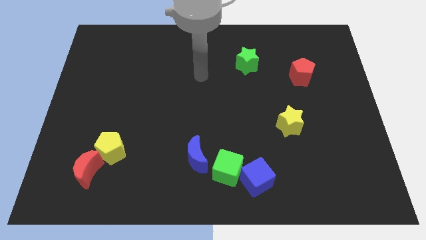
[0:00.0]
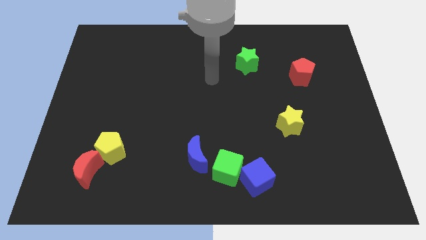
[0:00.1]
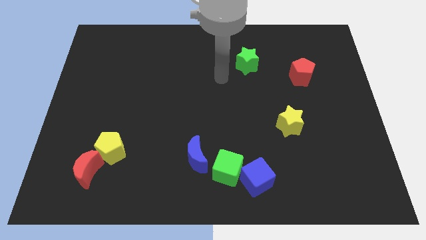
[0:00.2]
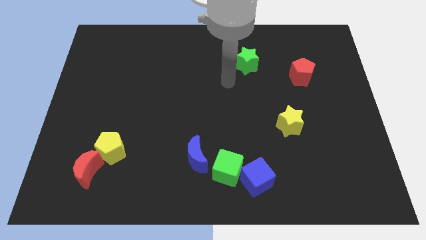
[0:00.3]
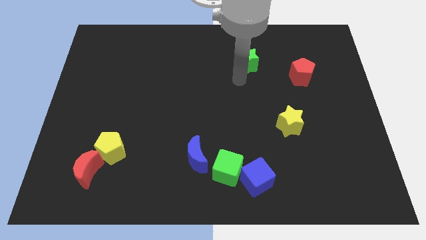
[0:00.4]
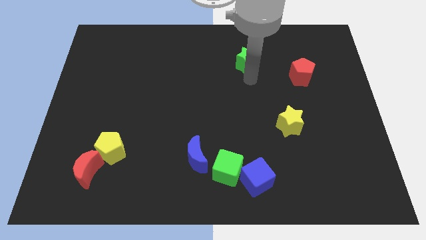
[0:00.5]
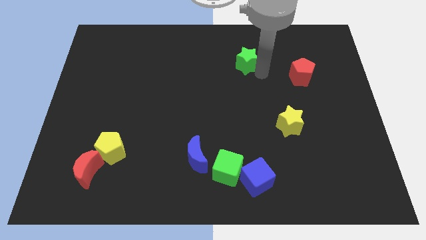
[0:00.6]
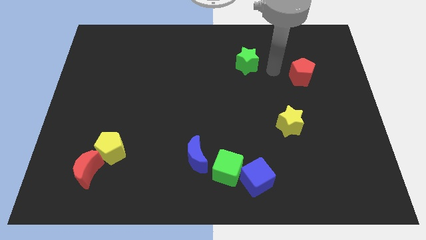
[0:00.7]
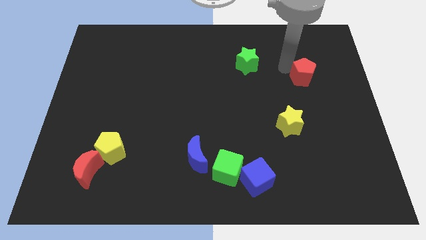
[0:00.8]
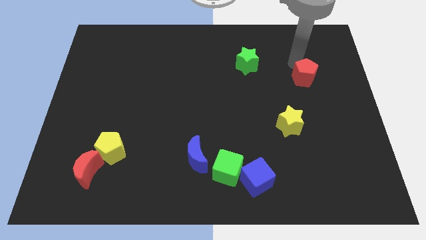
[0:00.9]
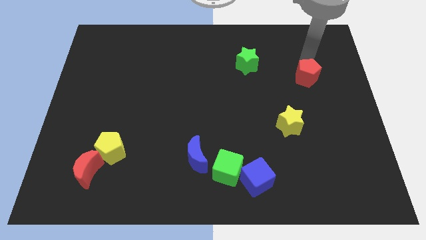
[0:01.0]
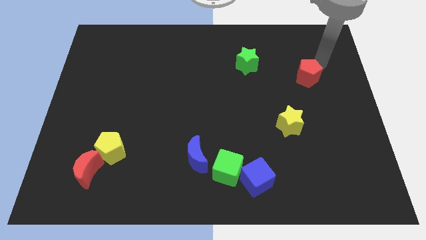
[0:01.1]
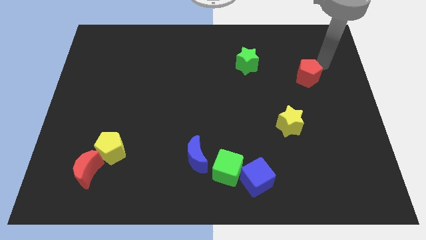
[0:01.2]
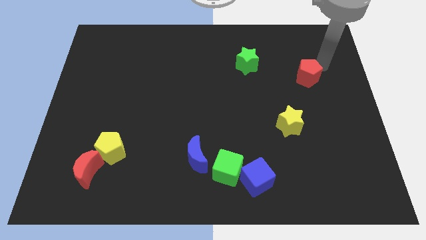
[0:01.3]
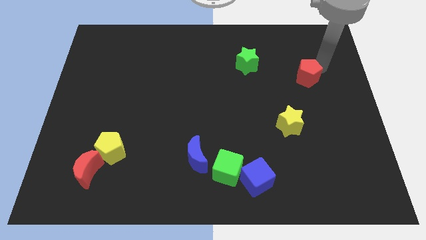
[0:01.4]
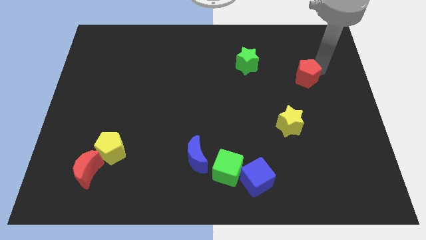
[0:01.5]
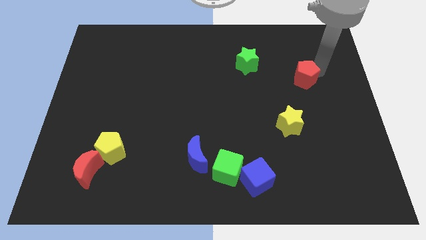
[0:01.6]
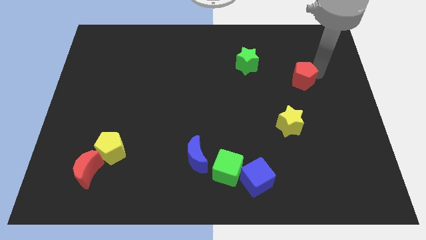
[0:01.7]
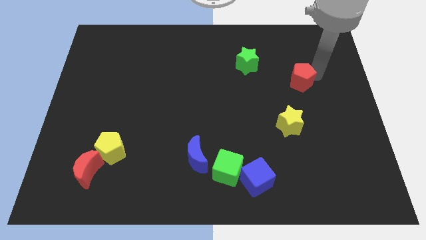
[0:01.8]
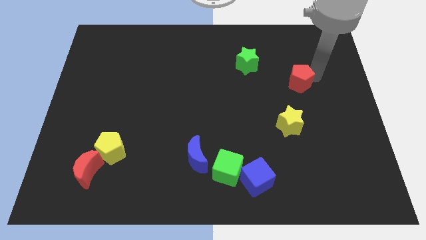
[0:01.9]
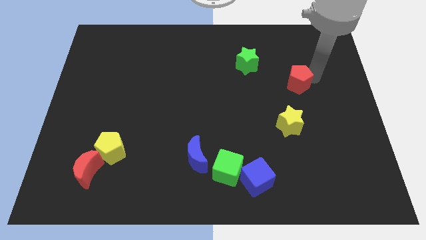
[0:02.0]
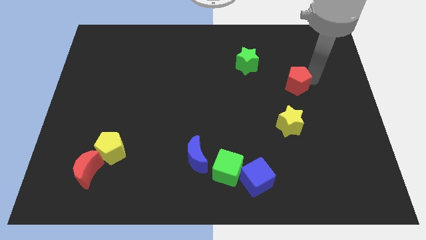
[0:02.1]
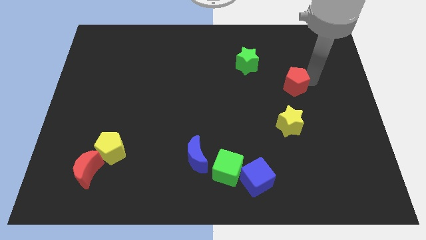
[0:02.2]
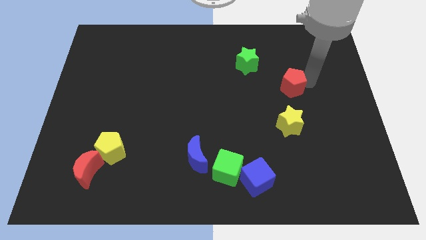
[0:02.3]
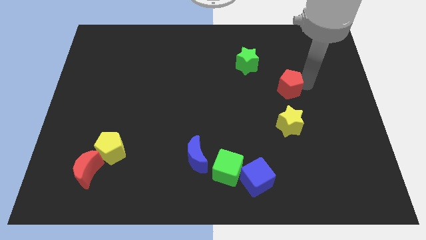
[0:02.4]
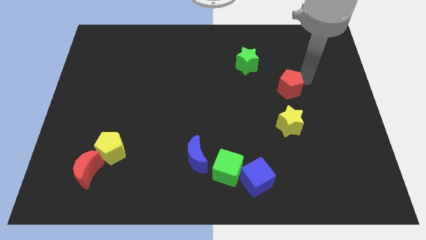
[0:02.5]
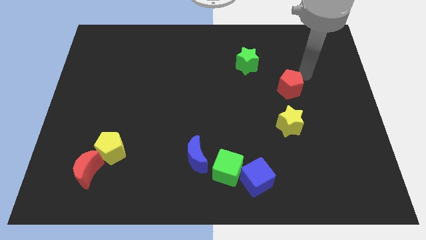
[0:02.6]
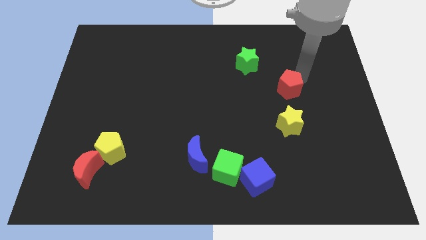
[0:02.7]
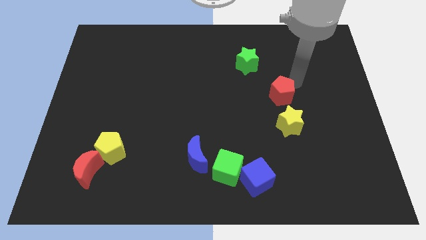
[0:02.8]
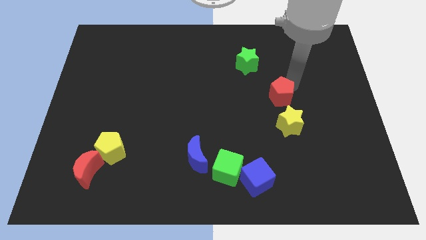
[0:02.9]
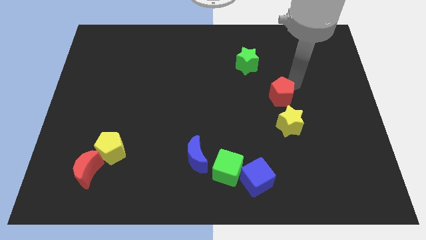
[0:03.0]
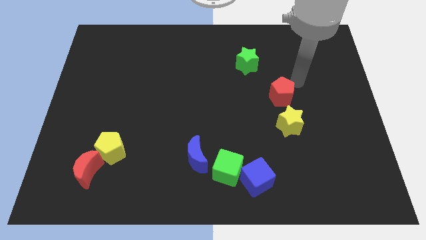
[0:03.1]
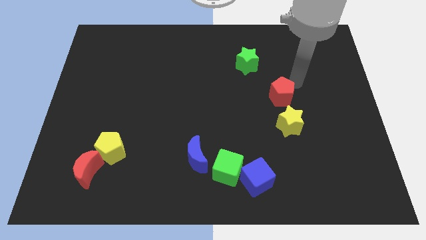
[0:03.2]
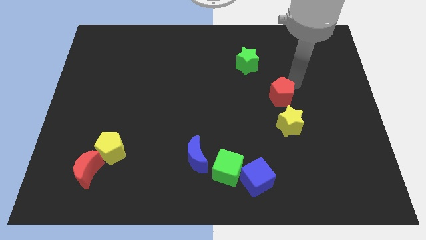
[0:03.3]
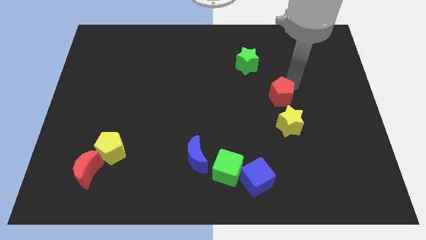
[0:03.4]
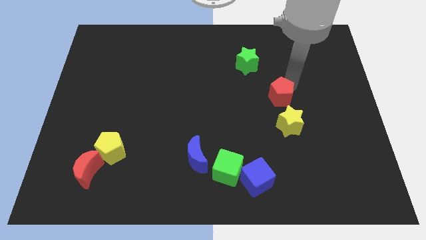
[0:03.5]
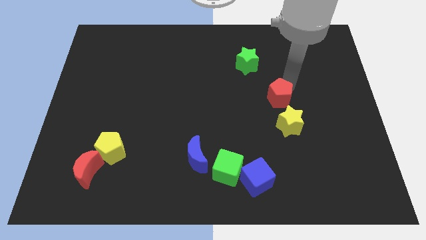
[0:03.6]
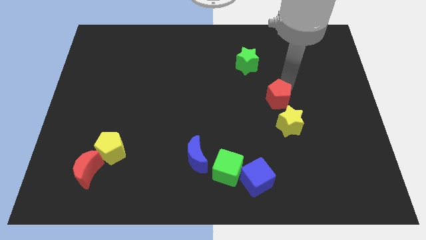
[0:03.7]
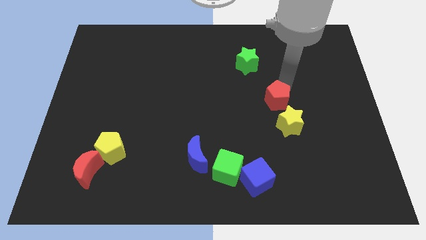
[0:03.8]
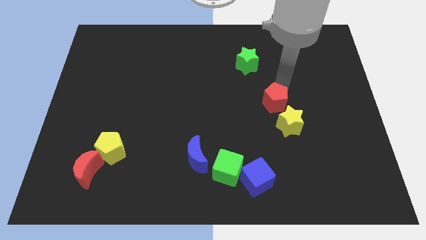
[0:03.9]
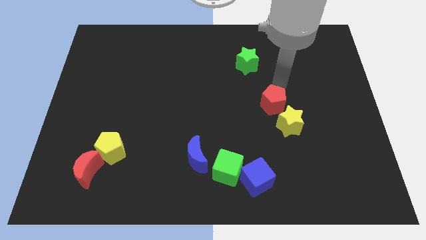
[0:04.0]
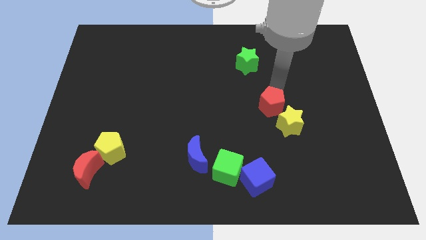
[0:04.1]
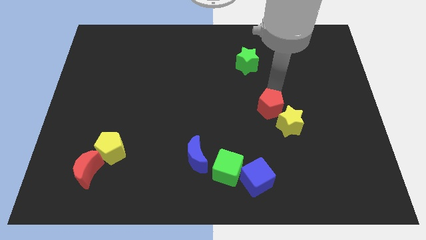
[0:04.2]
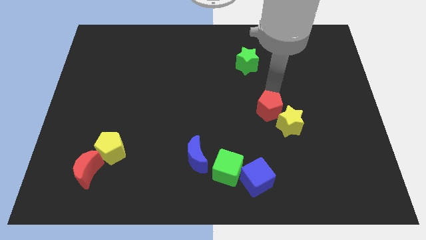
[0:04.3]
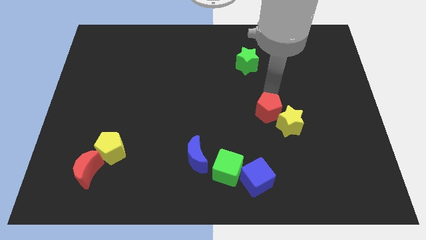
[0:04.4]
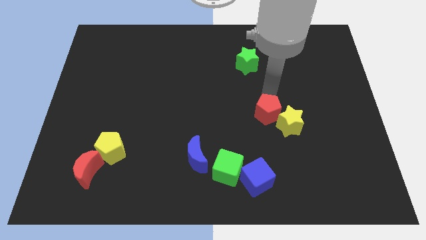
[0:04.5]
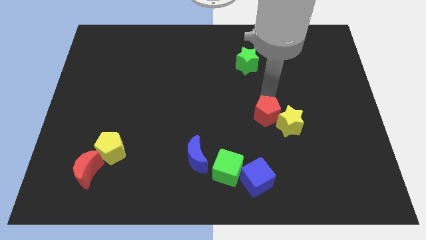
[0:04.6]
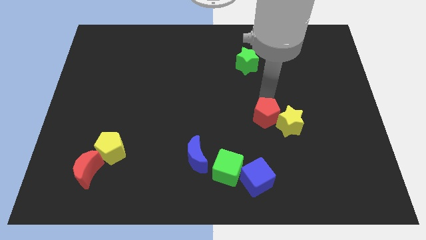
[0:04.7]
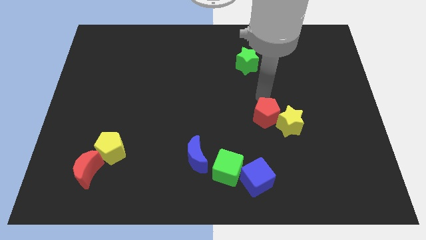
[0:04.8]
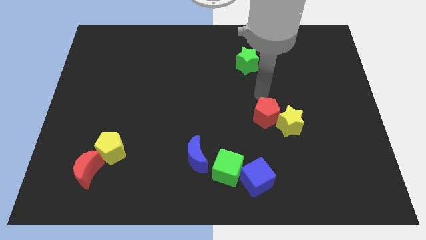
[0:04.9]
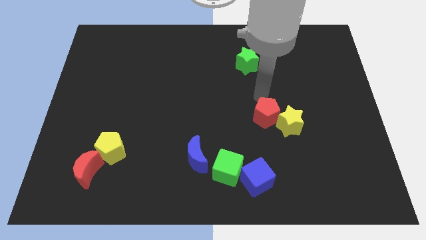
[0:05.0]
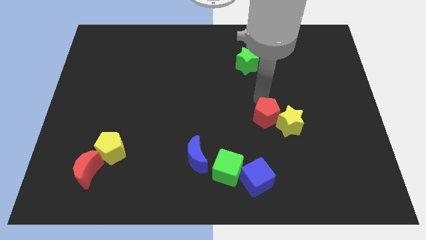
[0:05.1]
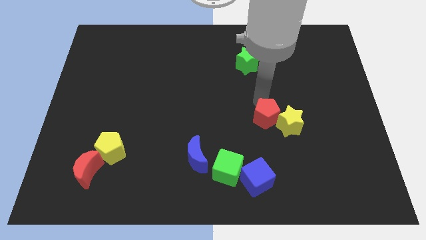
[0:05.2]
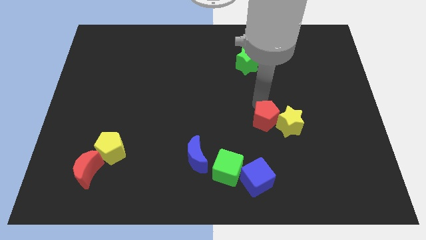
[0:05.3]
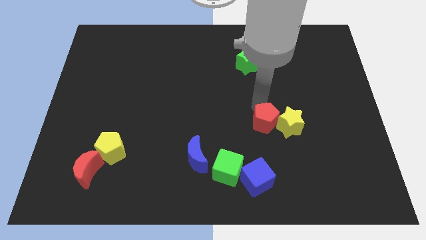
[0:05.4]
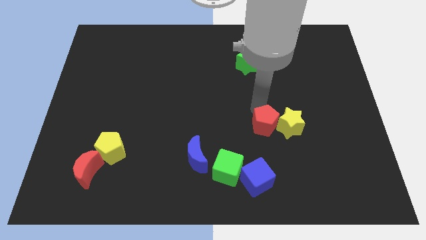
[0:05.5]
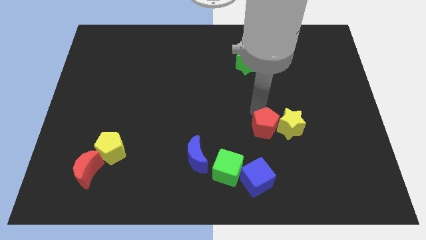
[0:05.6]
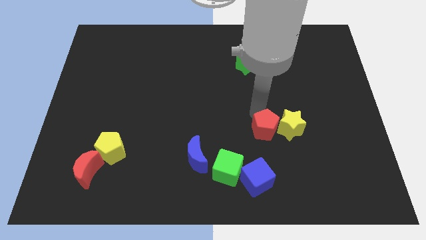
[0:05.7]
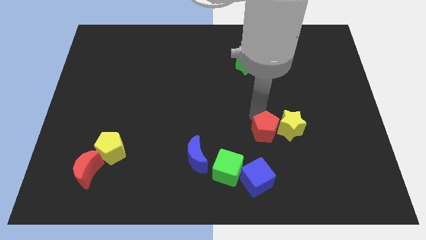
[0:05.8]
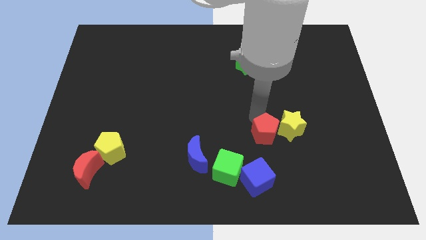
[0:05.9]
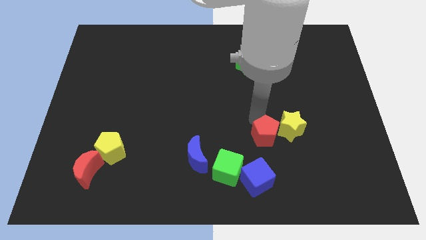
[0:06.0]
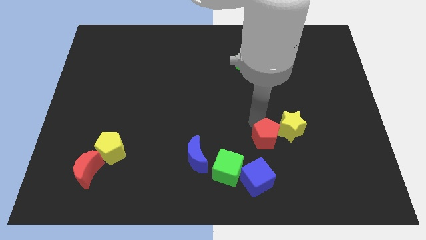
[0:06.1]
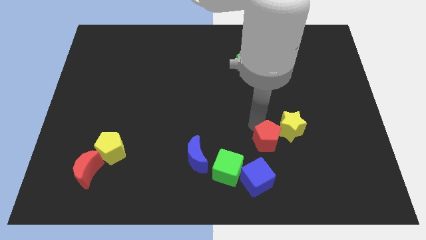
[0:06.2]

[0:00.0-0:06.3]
move the red pentagon to the top right side of the blue cube

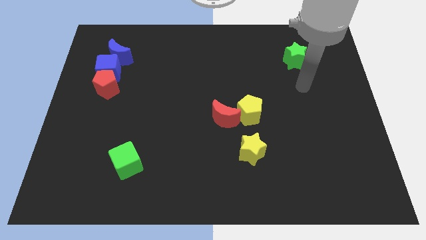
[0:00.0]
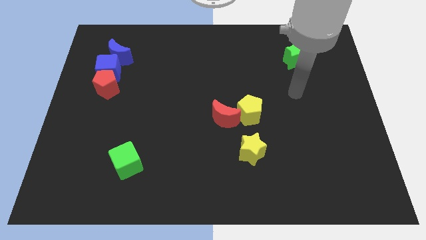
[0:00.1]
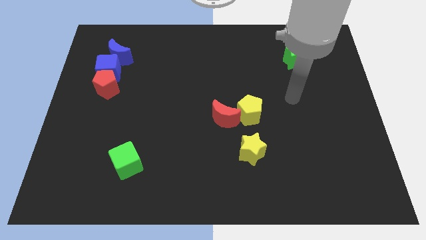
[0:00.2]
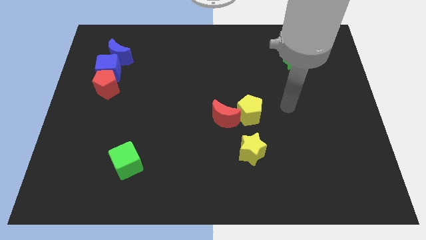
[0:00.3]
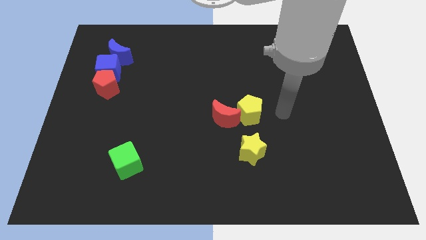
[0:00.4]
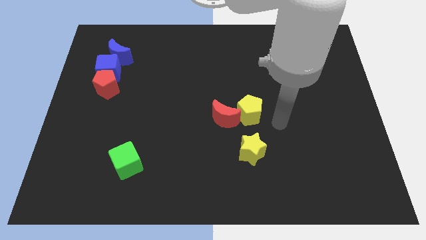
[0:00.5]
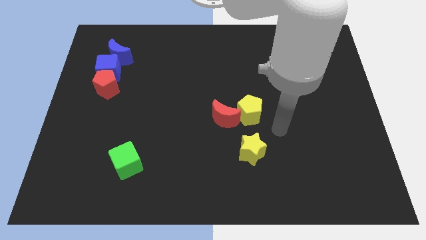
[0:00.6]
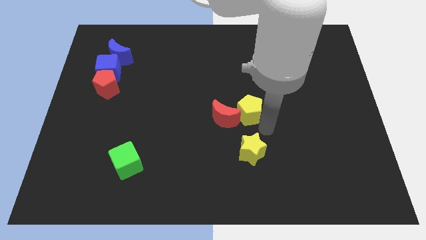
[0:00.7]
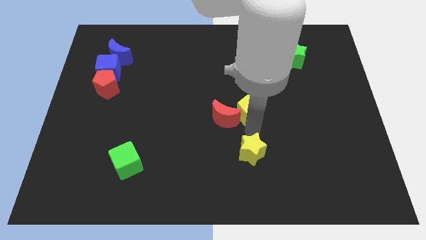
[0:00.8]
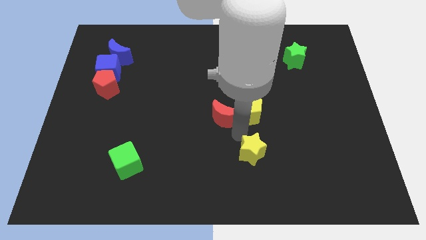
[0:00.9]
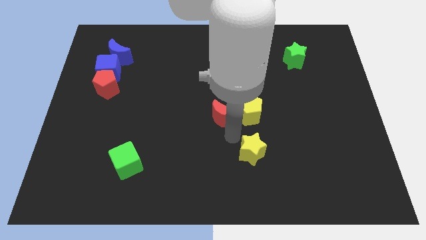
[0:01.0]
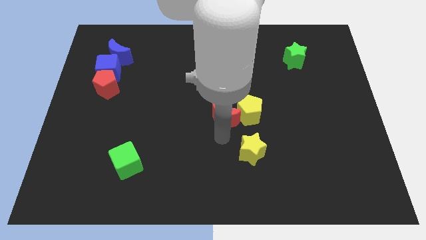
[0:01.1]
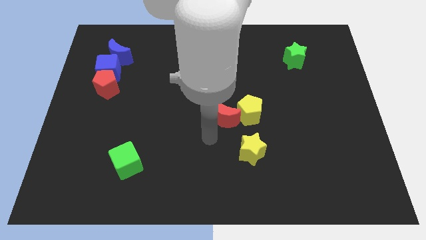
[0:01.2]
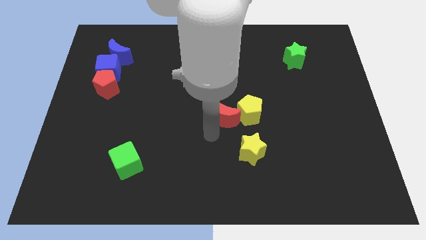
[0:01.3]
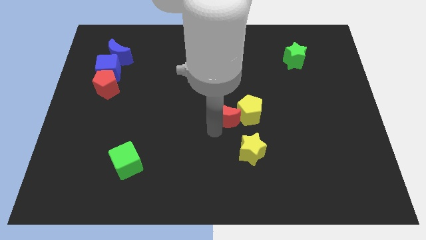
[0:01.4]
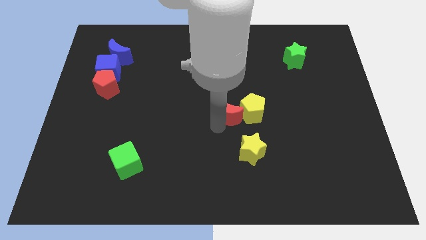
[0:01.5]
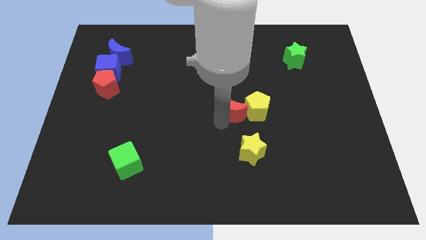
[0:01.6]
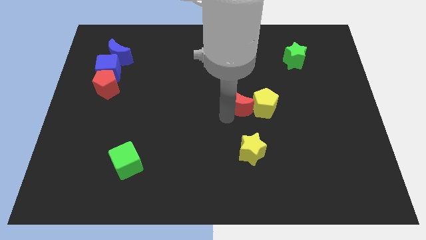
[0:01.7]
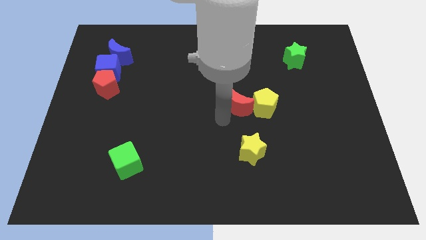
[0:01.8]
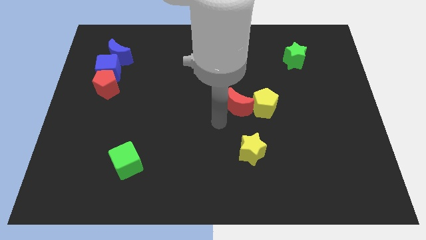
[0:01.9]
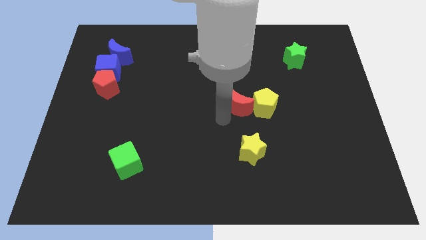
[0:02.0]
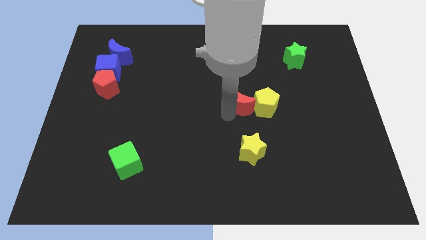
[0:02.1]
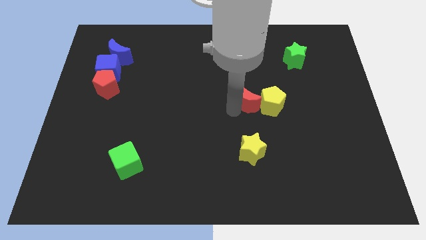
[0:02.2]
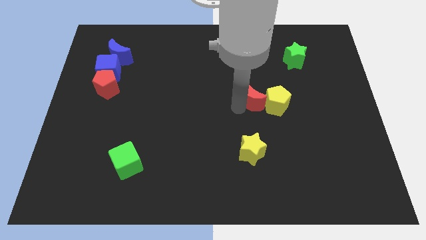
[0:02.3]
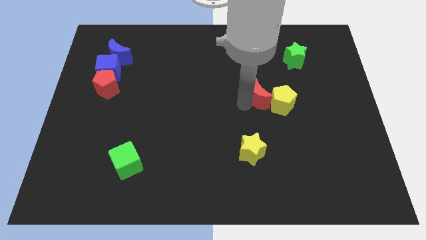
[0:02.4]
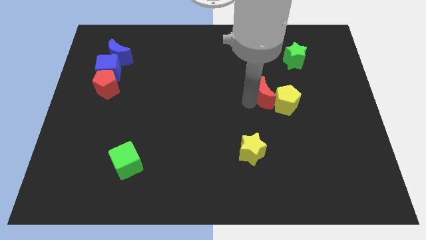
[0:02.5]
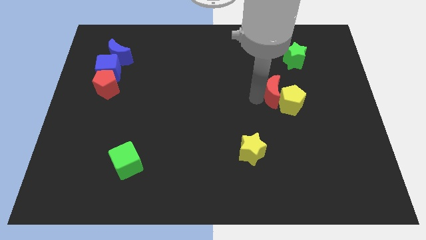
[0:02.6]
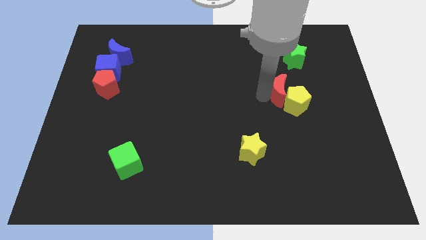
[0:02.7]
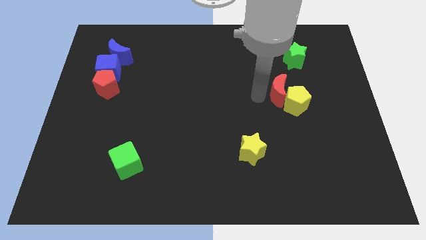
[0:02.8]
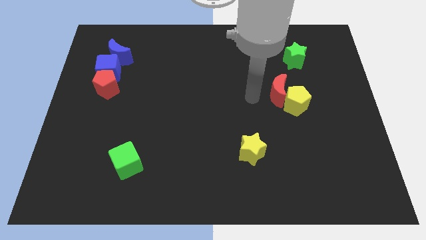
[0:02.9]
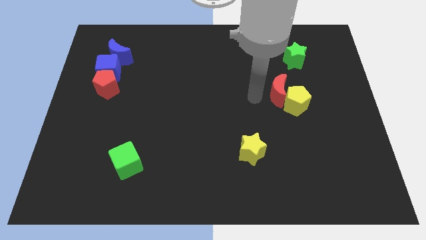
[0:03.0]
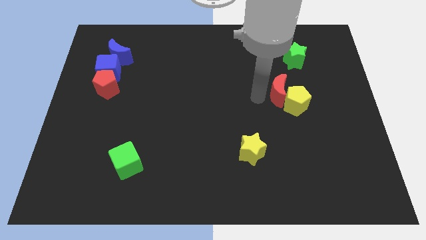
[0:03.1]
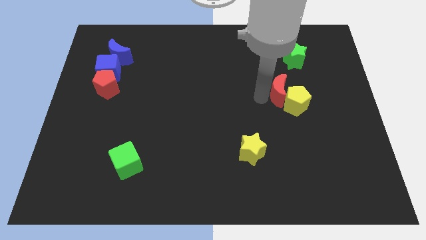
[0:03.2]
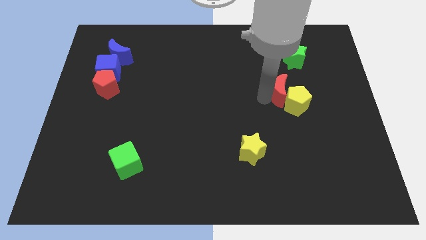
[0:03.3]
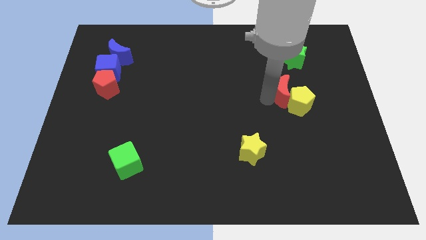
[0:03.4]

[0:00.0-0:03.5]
push the red moon to the bottom of the green star
